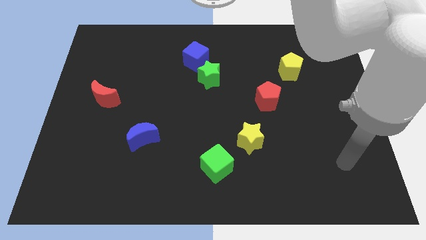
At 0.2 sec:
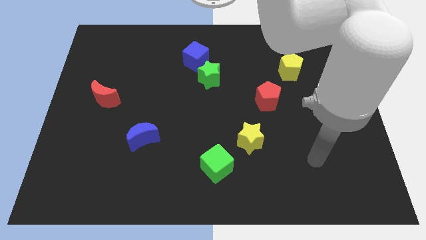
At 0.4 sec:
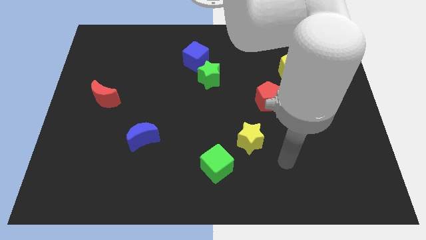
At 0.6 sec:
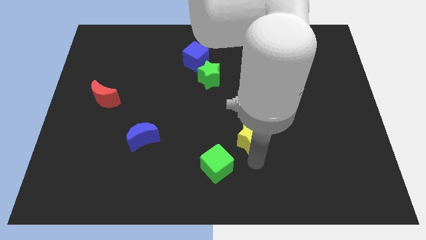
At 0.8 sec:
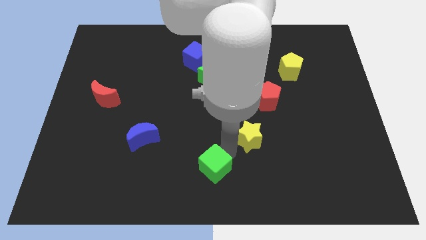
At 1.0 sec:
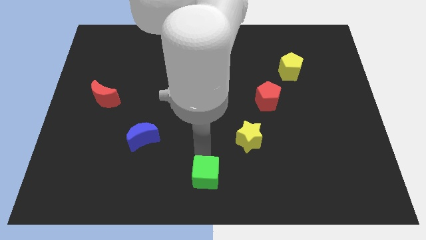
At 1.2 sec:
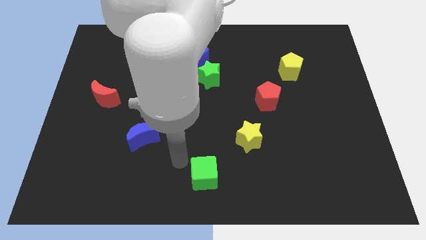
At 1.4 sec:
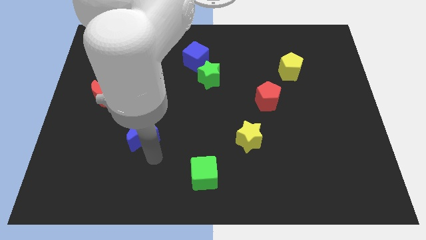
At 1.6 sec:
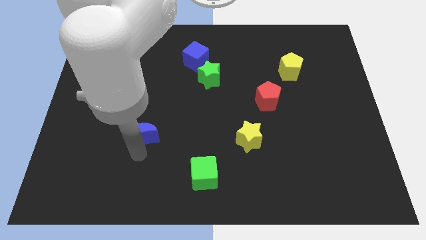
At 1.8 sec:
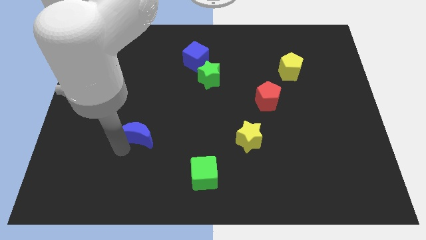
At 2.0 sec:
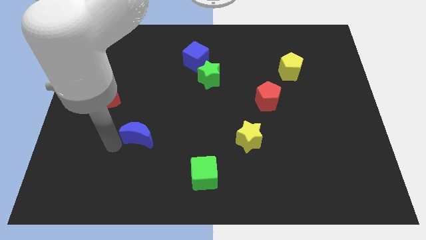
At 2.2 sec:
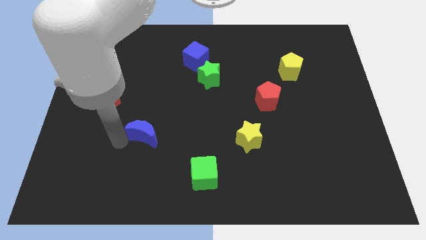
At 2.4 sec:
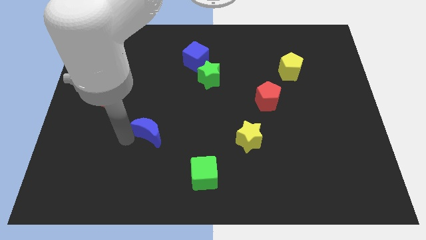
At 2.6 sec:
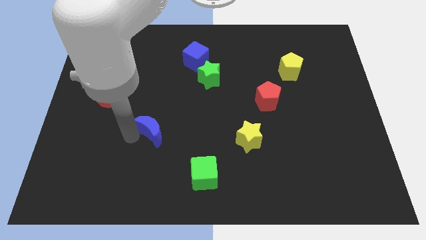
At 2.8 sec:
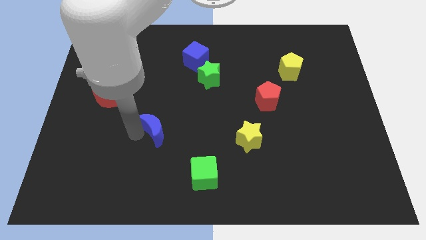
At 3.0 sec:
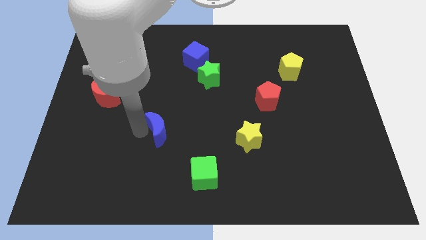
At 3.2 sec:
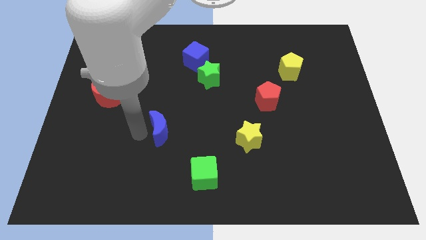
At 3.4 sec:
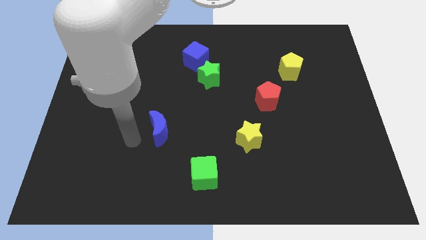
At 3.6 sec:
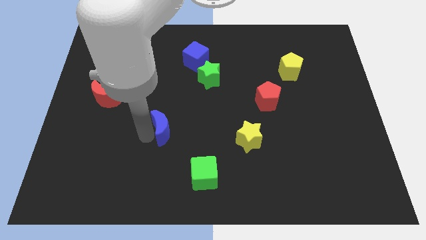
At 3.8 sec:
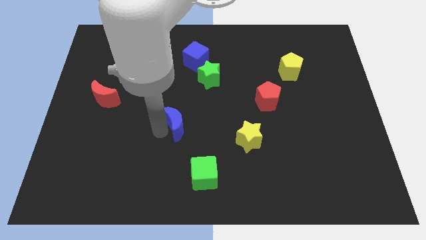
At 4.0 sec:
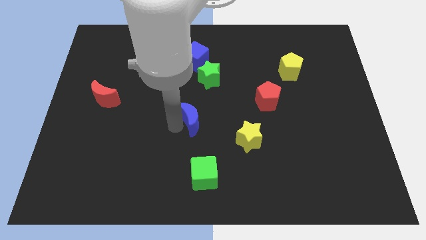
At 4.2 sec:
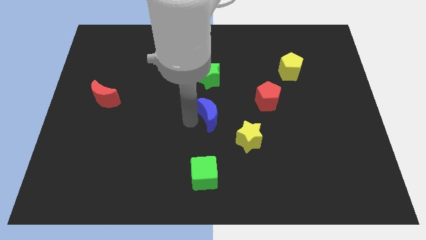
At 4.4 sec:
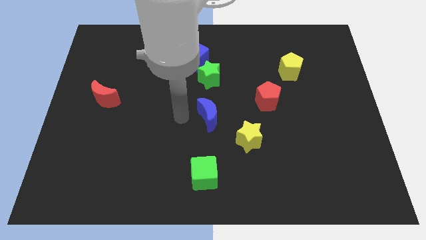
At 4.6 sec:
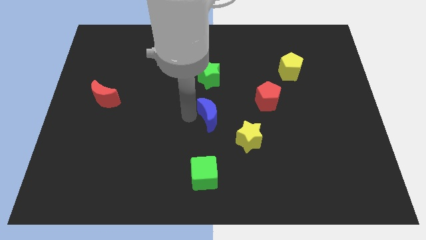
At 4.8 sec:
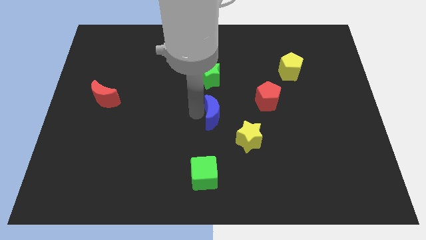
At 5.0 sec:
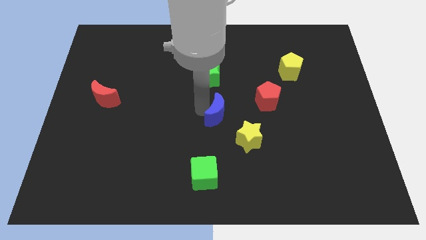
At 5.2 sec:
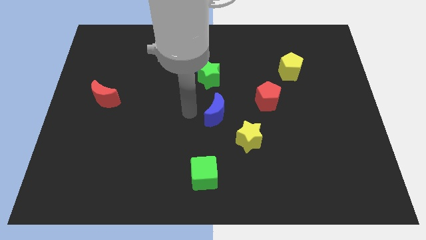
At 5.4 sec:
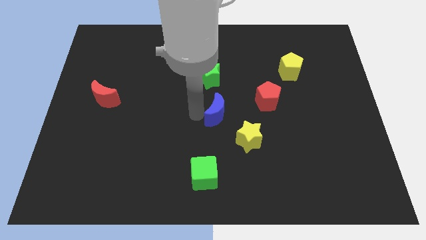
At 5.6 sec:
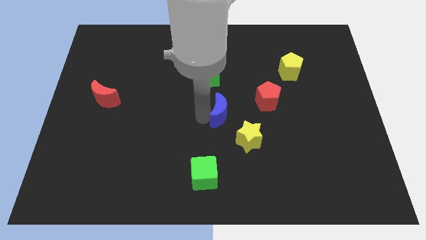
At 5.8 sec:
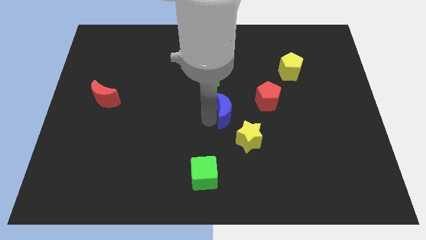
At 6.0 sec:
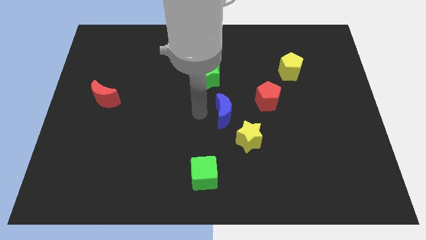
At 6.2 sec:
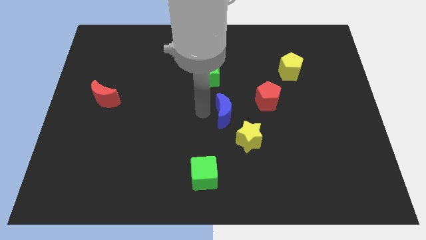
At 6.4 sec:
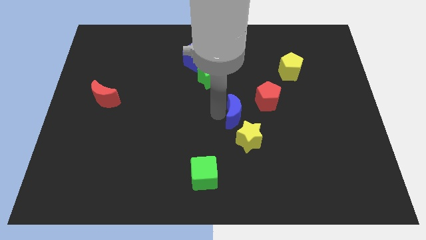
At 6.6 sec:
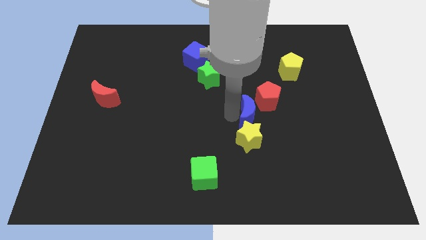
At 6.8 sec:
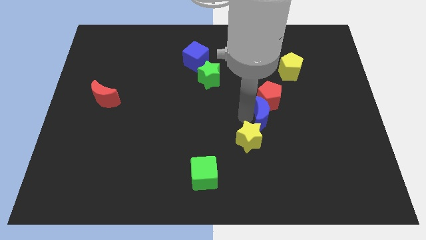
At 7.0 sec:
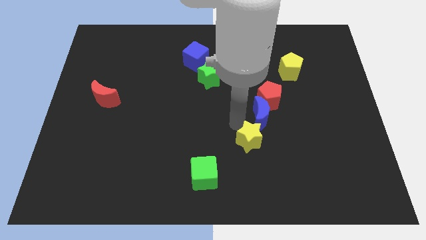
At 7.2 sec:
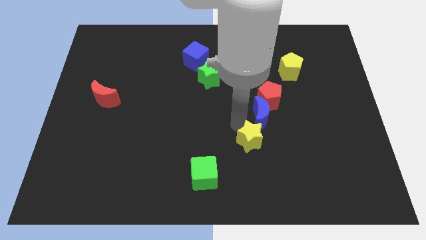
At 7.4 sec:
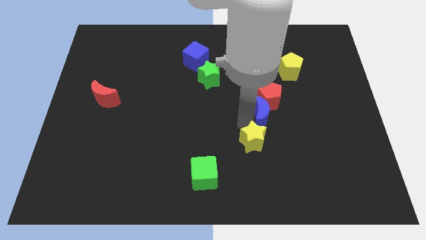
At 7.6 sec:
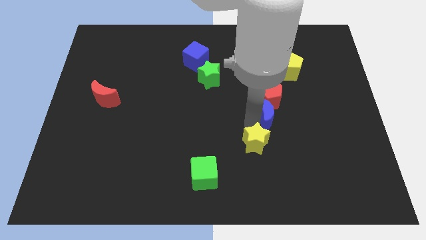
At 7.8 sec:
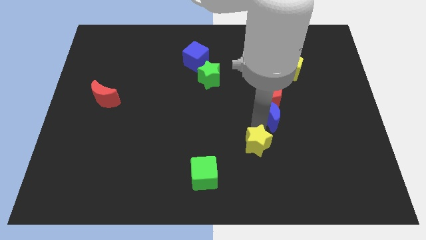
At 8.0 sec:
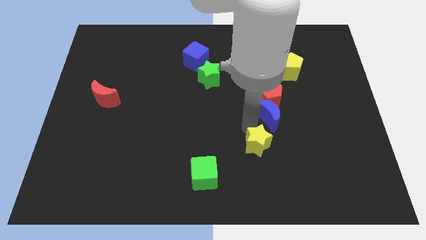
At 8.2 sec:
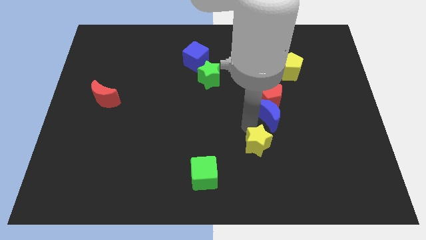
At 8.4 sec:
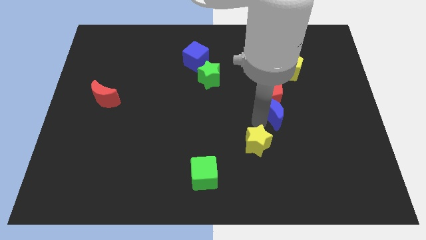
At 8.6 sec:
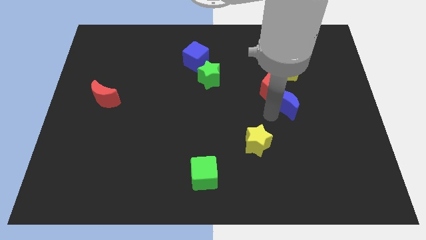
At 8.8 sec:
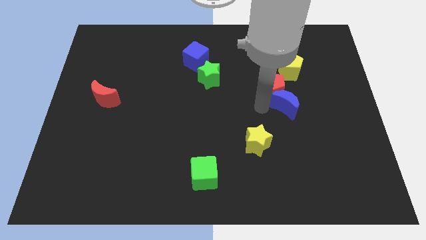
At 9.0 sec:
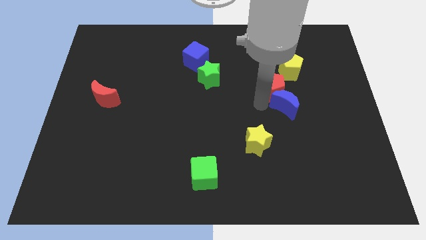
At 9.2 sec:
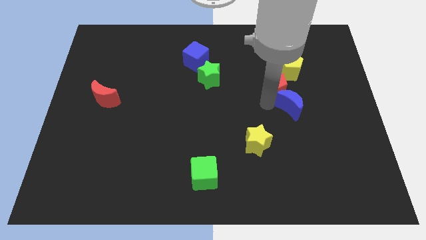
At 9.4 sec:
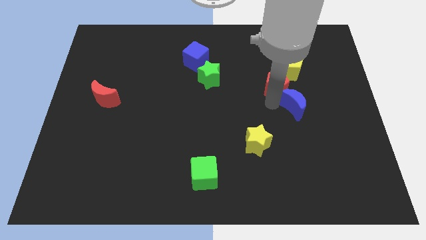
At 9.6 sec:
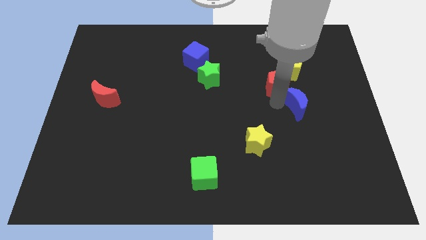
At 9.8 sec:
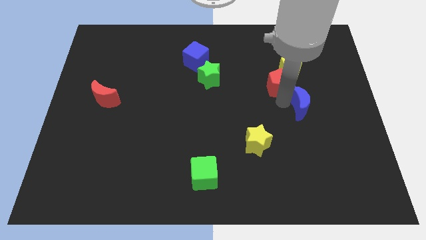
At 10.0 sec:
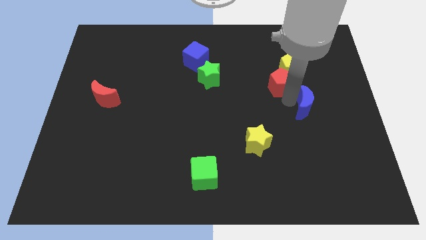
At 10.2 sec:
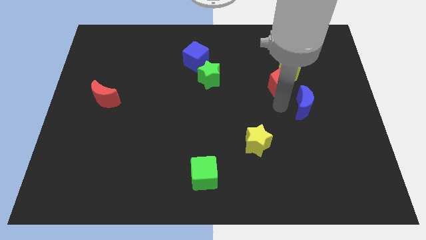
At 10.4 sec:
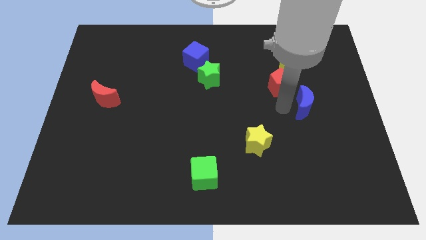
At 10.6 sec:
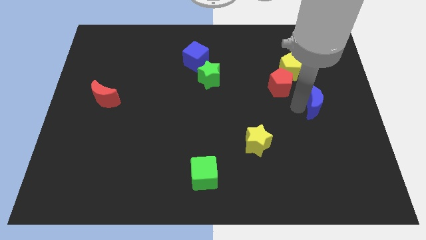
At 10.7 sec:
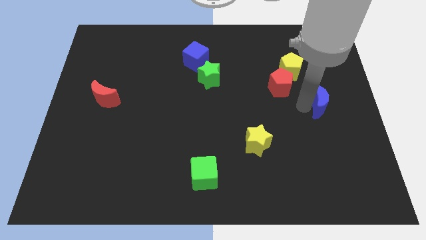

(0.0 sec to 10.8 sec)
push the blue moon to the center right
